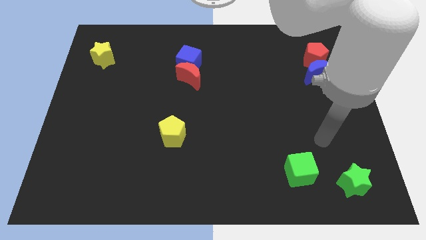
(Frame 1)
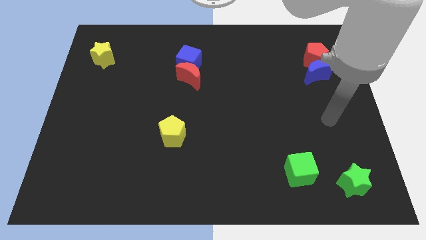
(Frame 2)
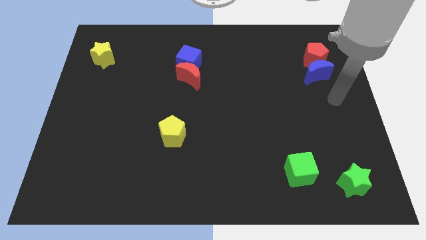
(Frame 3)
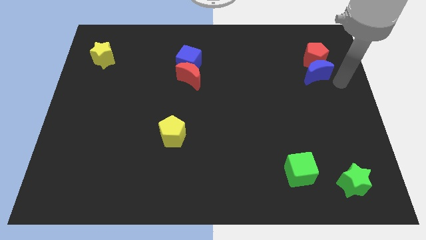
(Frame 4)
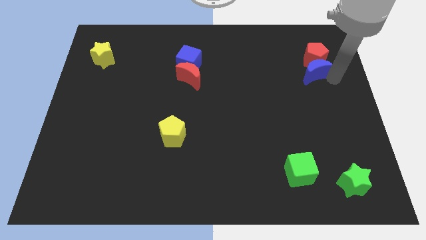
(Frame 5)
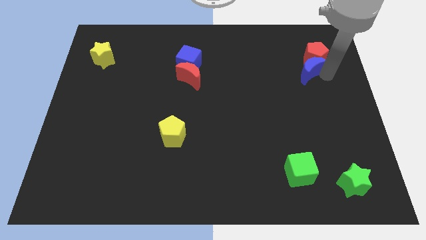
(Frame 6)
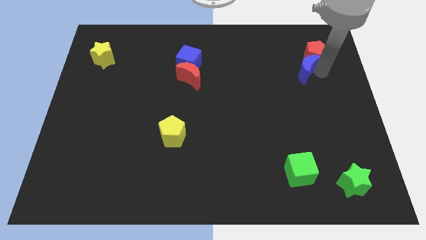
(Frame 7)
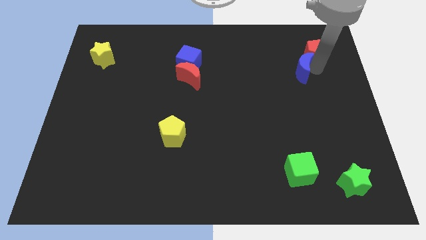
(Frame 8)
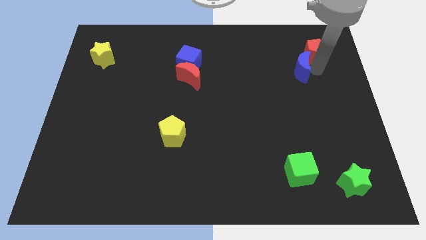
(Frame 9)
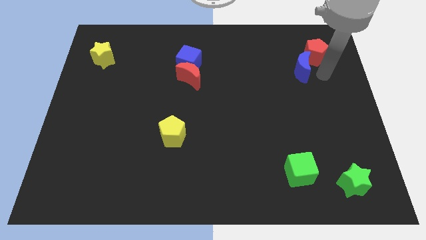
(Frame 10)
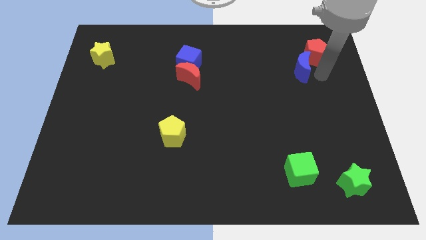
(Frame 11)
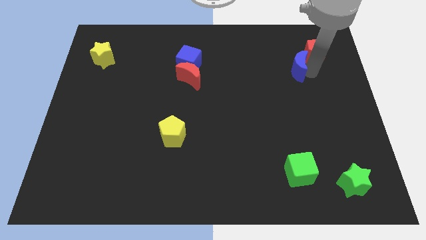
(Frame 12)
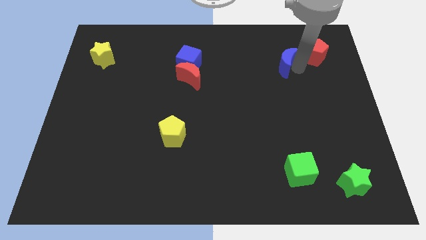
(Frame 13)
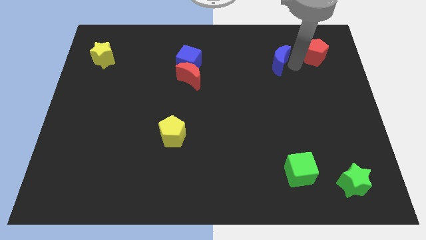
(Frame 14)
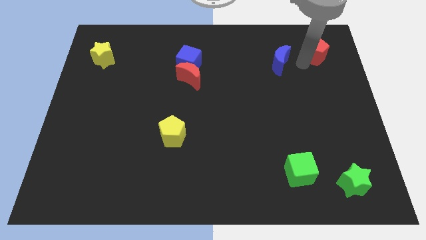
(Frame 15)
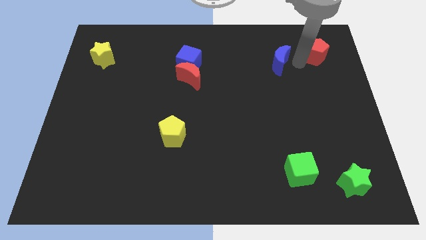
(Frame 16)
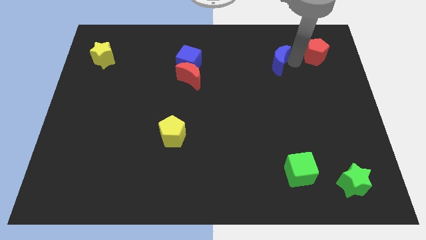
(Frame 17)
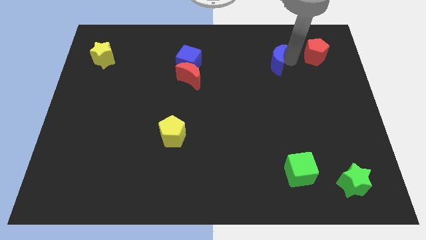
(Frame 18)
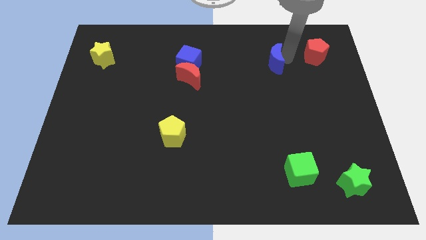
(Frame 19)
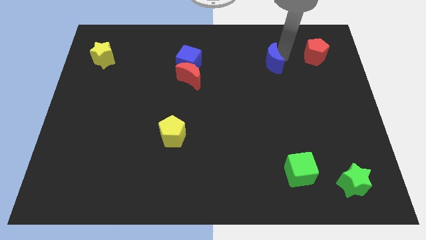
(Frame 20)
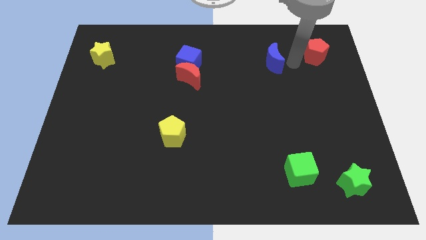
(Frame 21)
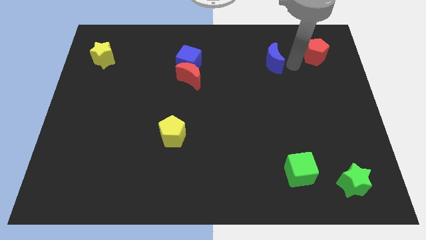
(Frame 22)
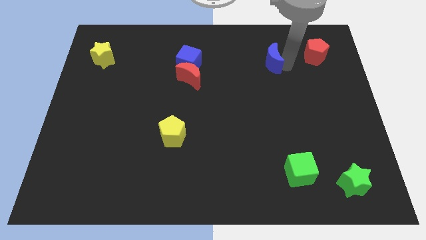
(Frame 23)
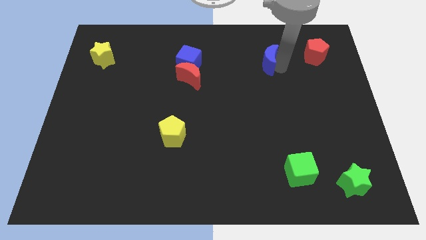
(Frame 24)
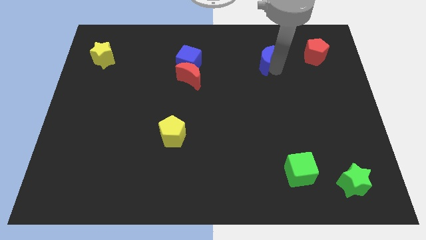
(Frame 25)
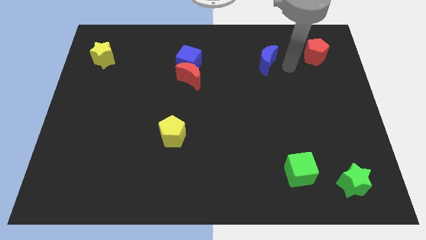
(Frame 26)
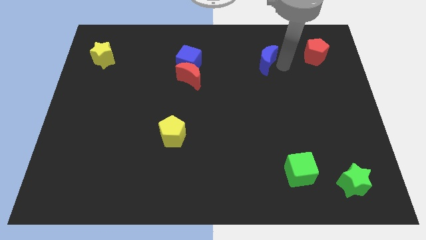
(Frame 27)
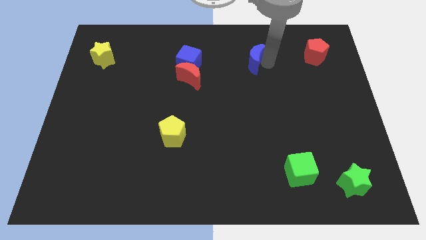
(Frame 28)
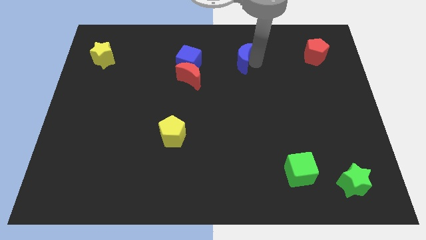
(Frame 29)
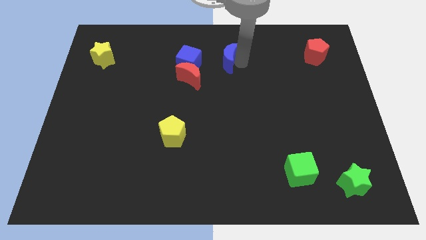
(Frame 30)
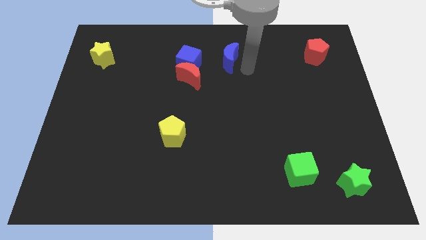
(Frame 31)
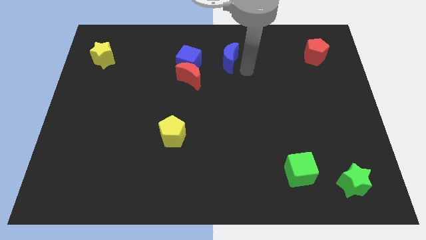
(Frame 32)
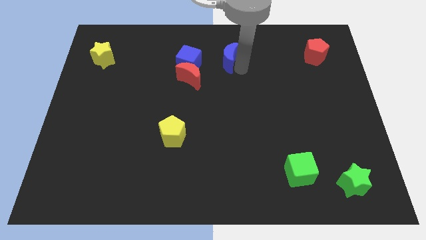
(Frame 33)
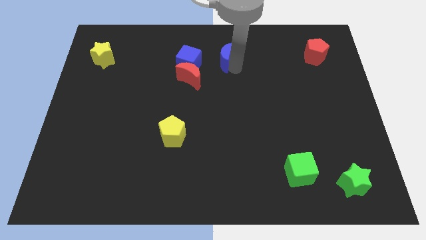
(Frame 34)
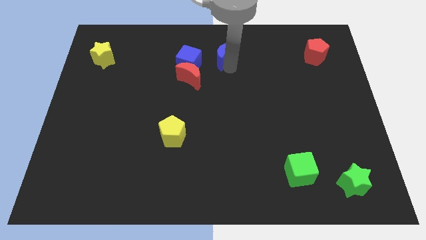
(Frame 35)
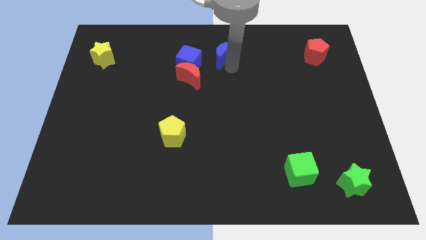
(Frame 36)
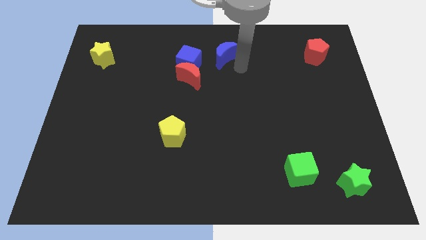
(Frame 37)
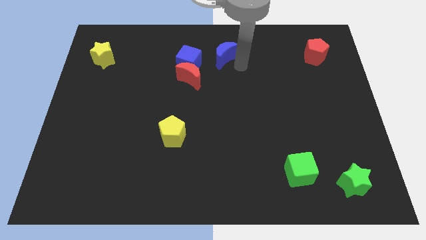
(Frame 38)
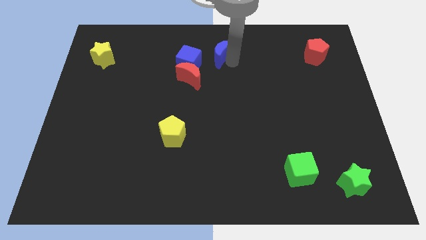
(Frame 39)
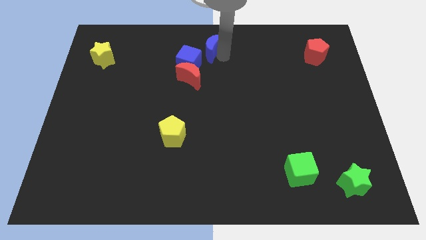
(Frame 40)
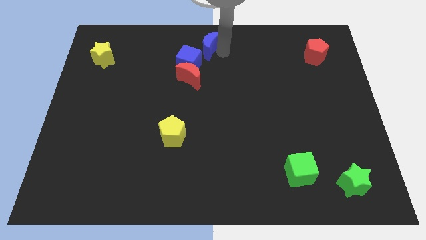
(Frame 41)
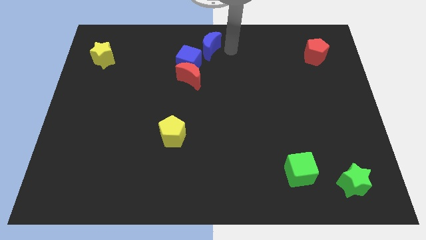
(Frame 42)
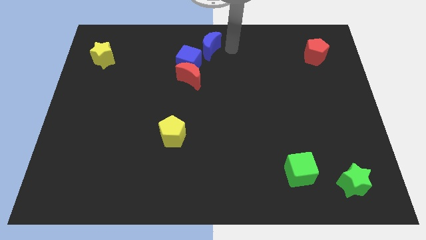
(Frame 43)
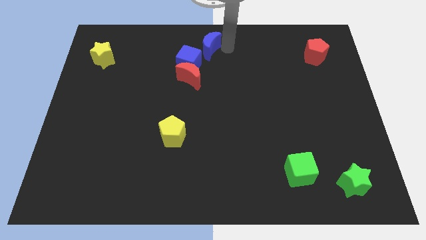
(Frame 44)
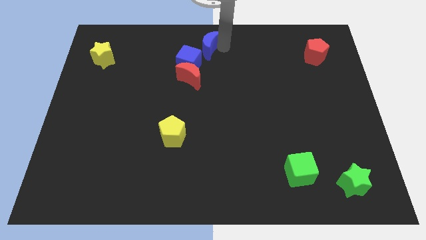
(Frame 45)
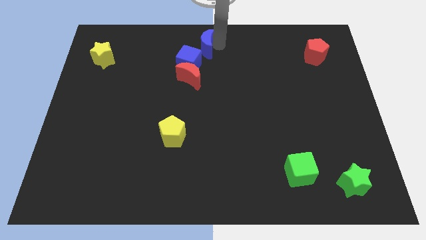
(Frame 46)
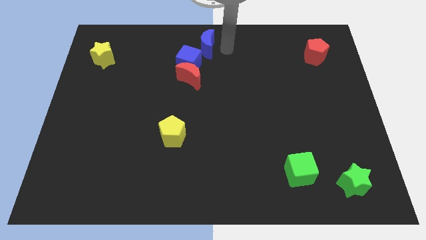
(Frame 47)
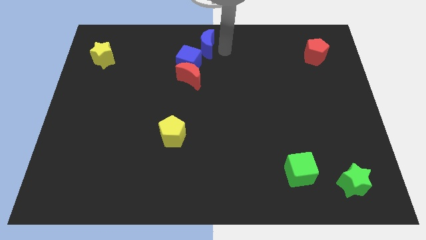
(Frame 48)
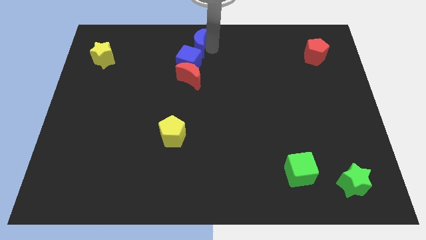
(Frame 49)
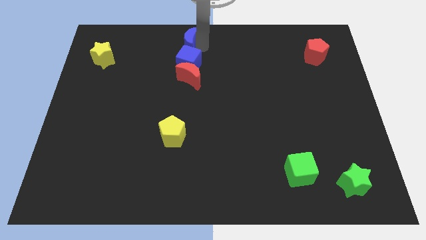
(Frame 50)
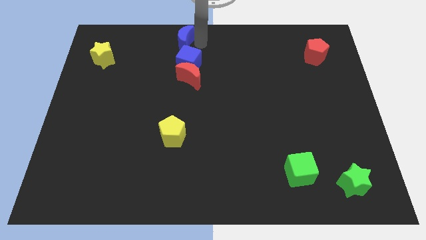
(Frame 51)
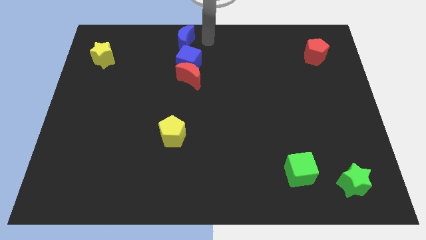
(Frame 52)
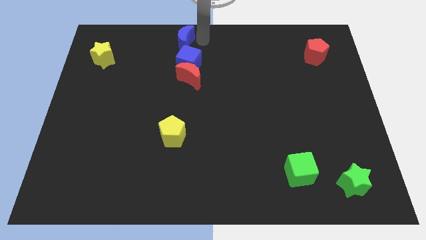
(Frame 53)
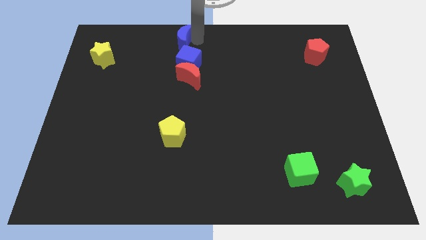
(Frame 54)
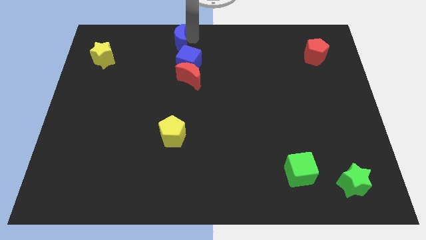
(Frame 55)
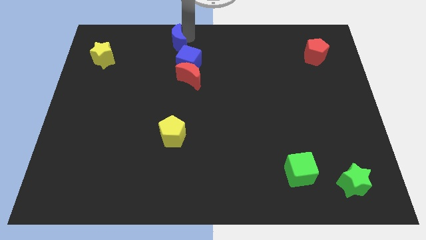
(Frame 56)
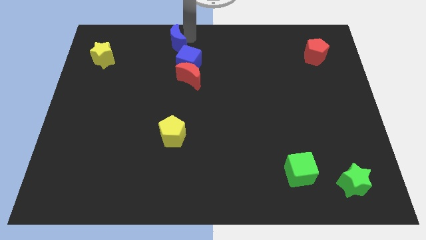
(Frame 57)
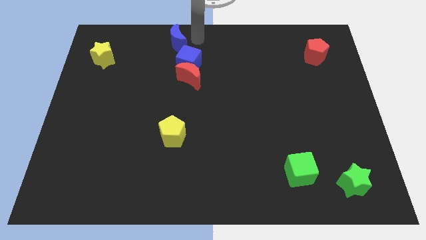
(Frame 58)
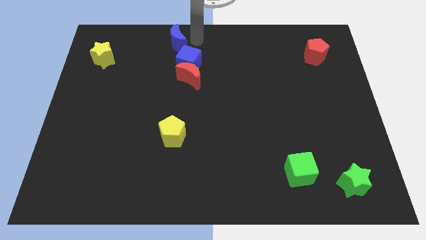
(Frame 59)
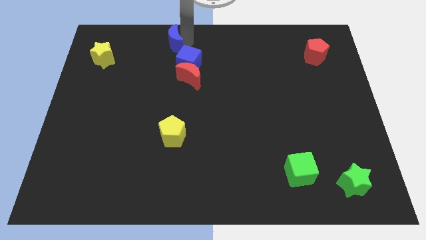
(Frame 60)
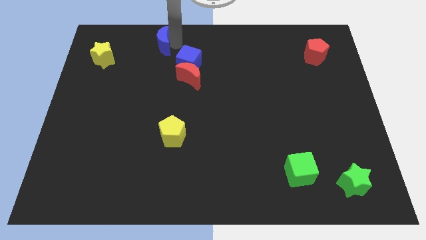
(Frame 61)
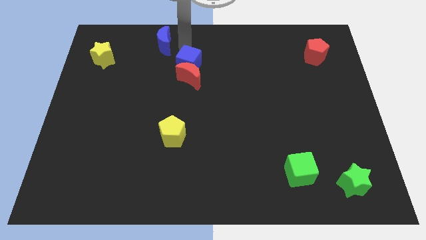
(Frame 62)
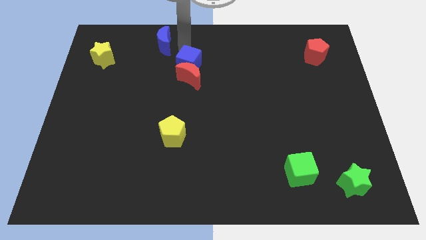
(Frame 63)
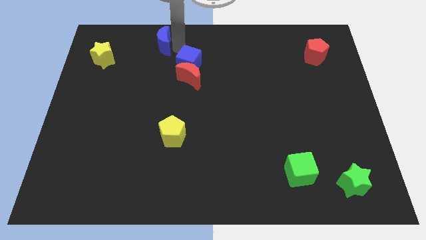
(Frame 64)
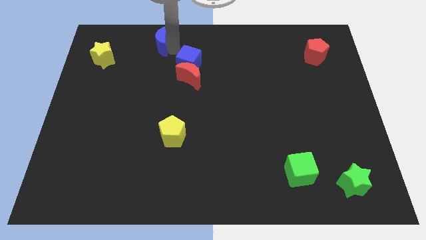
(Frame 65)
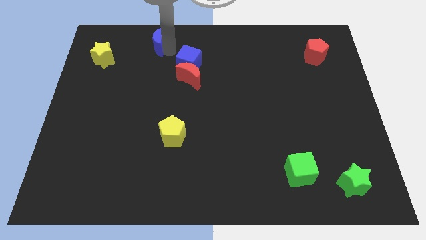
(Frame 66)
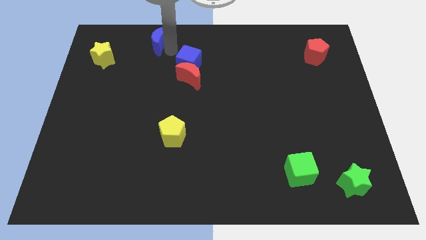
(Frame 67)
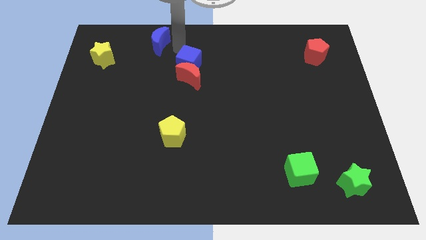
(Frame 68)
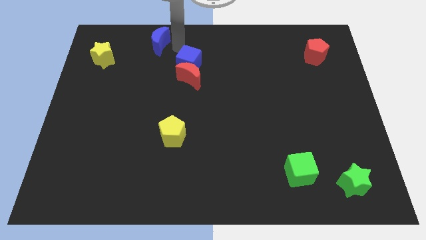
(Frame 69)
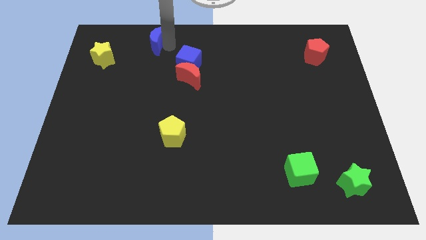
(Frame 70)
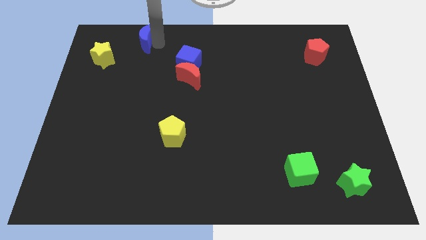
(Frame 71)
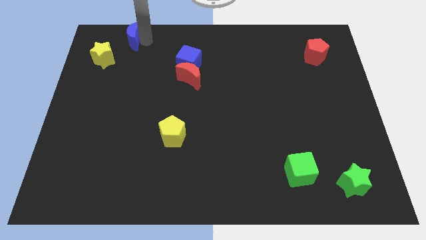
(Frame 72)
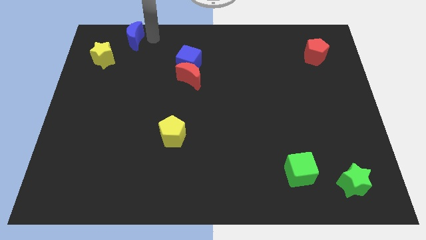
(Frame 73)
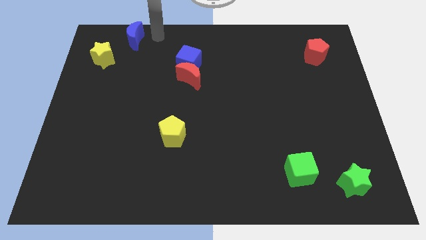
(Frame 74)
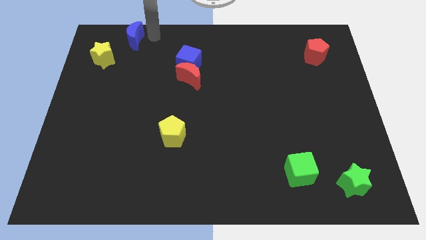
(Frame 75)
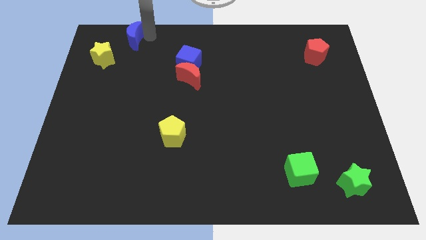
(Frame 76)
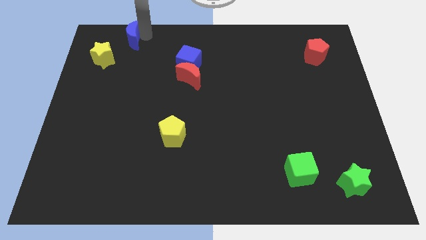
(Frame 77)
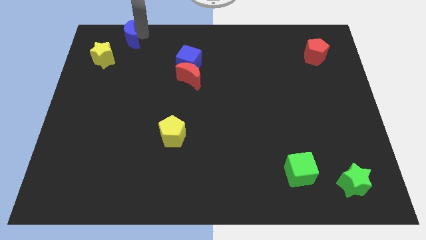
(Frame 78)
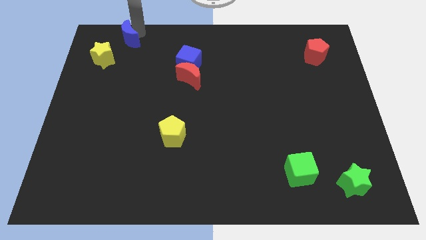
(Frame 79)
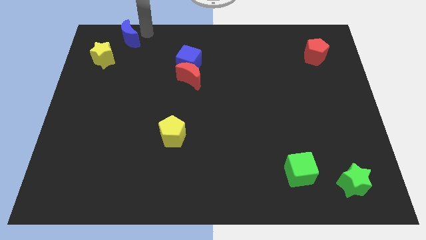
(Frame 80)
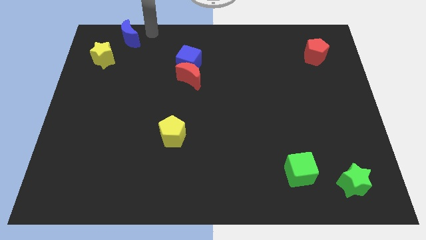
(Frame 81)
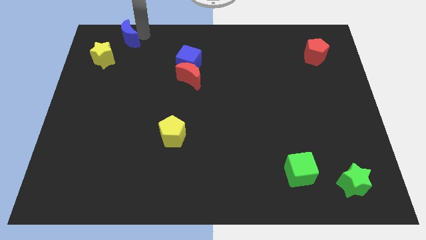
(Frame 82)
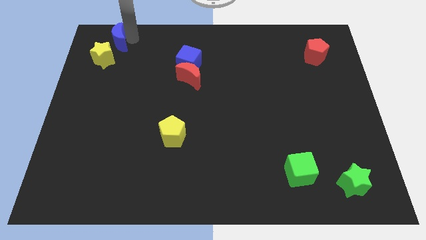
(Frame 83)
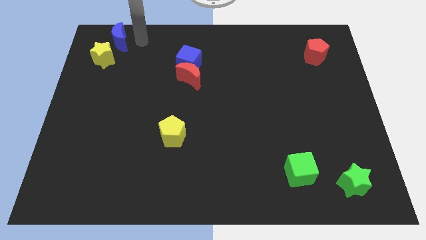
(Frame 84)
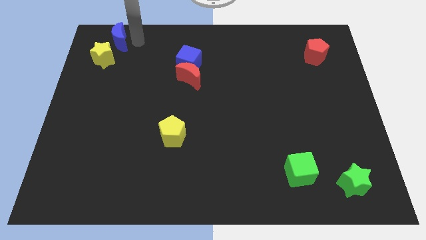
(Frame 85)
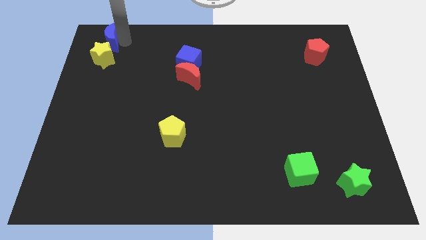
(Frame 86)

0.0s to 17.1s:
put the blue moon to the top left
